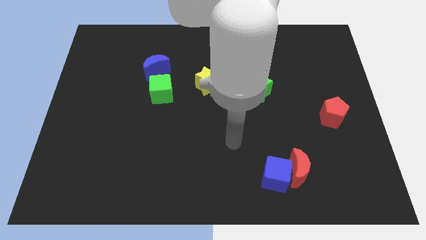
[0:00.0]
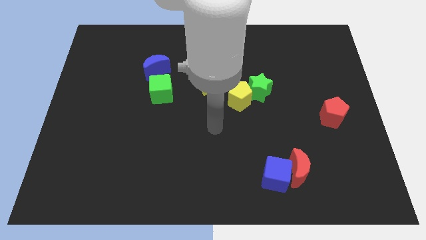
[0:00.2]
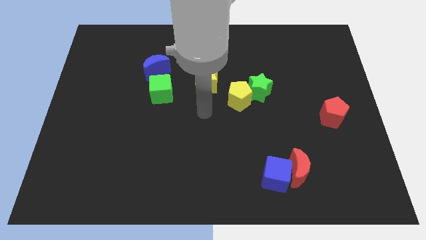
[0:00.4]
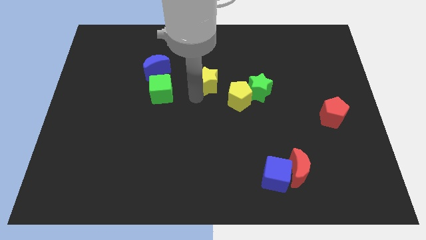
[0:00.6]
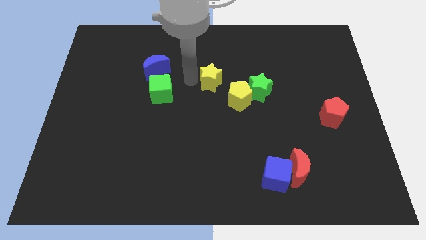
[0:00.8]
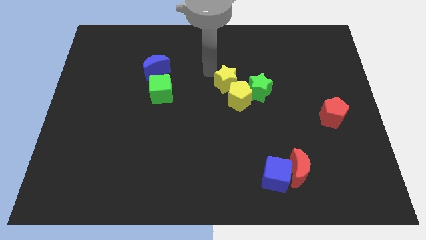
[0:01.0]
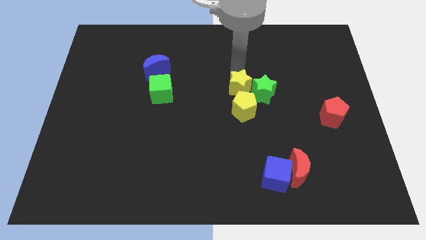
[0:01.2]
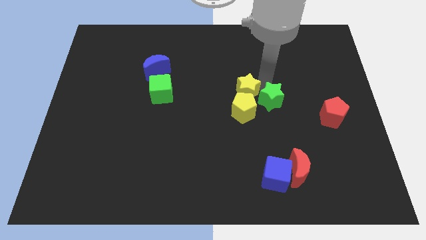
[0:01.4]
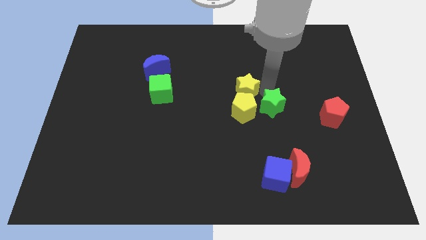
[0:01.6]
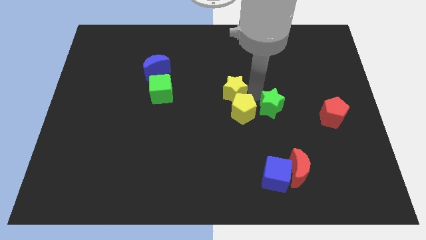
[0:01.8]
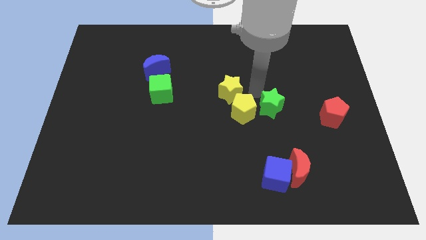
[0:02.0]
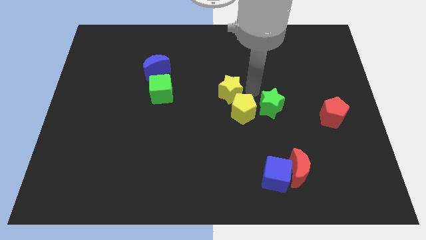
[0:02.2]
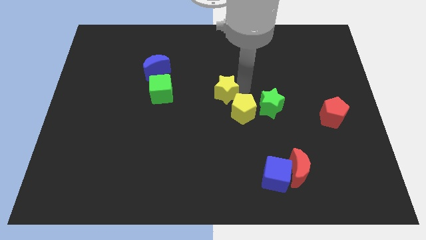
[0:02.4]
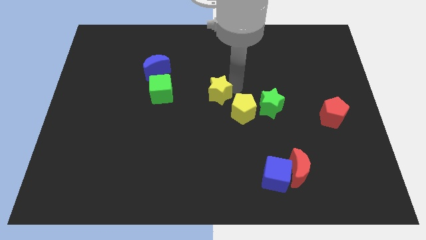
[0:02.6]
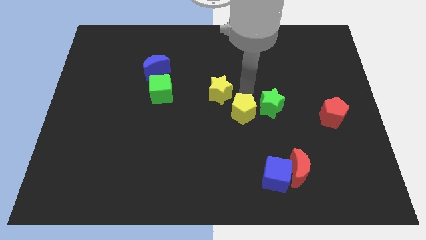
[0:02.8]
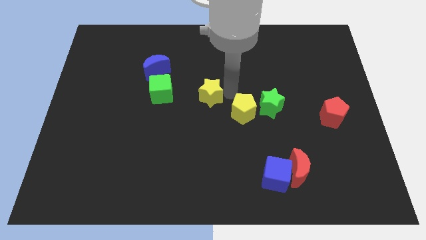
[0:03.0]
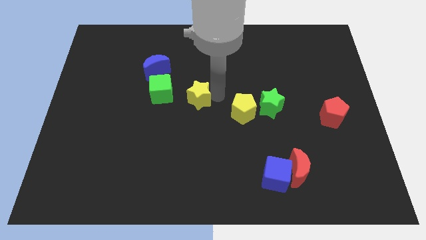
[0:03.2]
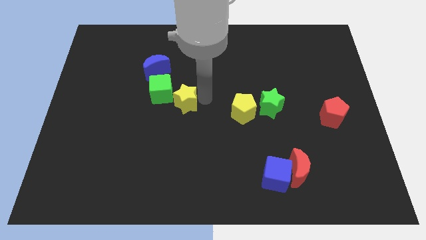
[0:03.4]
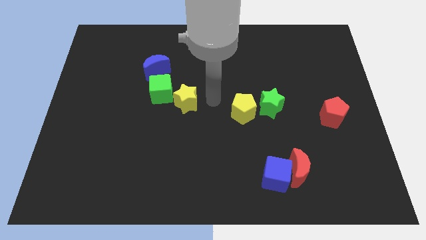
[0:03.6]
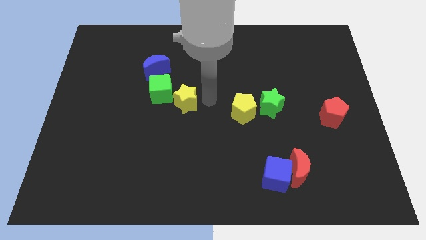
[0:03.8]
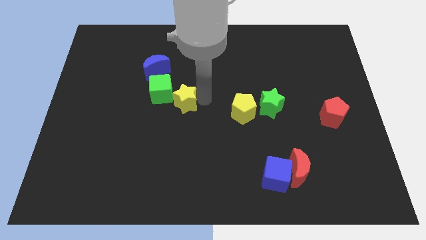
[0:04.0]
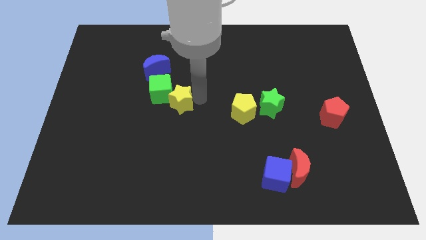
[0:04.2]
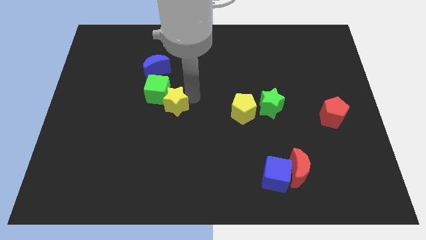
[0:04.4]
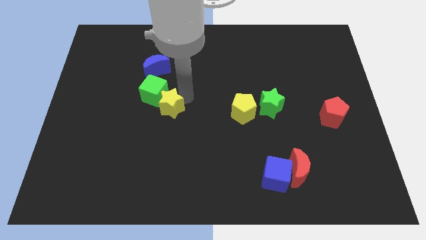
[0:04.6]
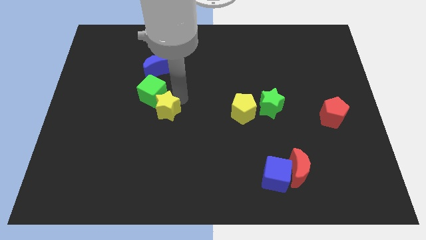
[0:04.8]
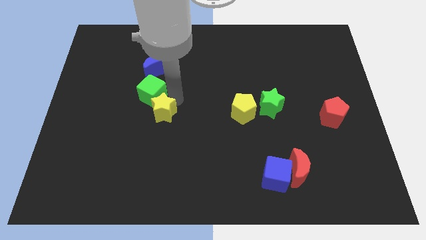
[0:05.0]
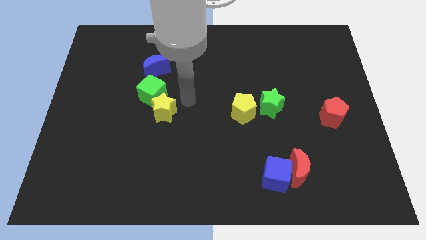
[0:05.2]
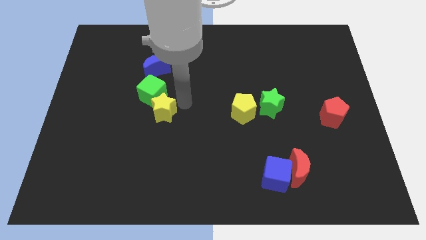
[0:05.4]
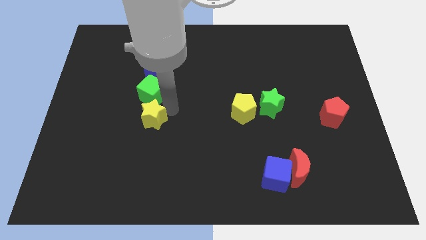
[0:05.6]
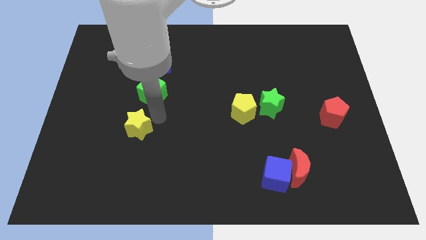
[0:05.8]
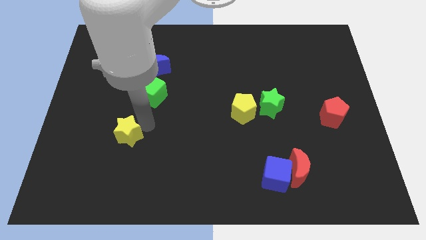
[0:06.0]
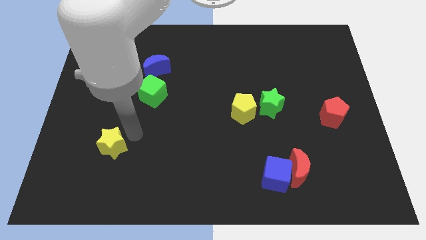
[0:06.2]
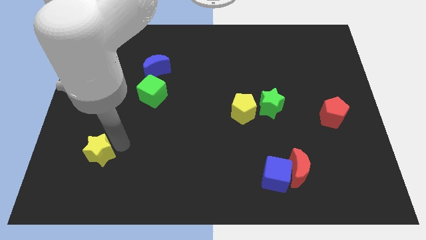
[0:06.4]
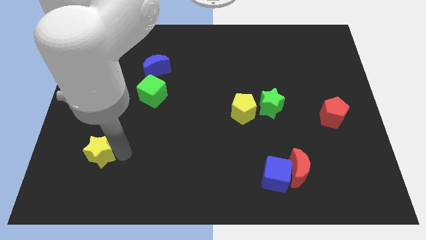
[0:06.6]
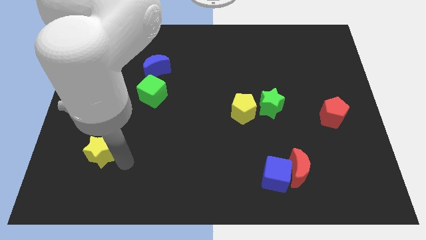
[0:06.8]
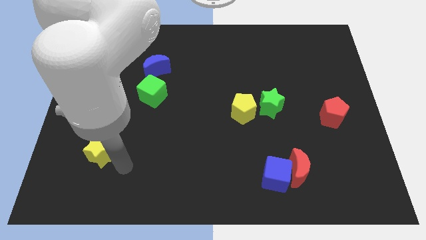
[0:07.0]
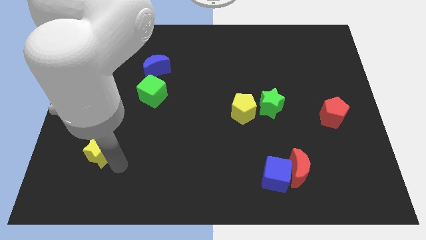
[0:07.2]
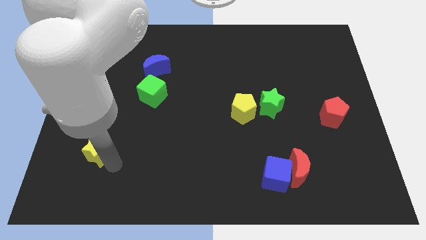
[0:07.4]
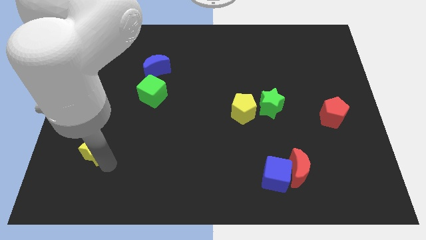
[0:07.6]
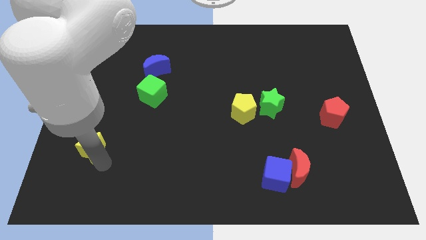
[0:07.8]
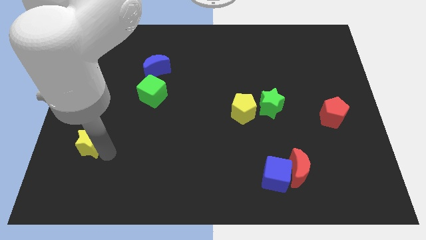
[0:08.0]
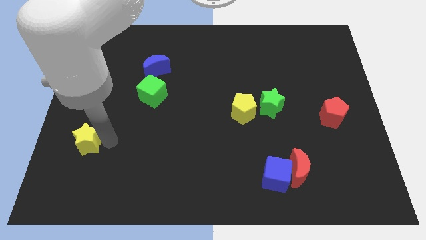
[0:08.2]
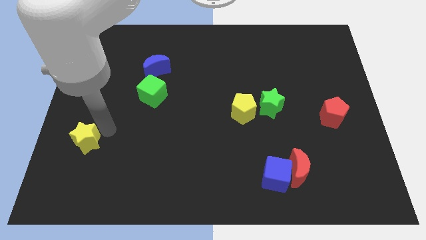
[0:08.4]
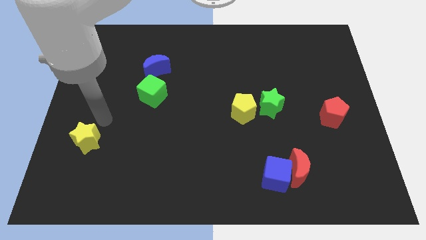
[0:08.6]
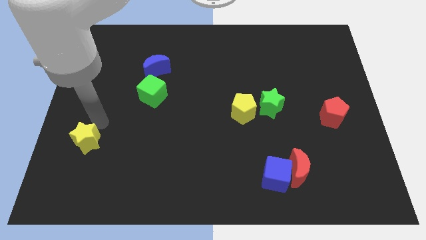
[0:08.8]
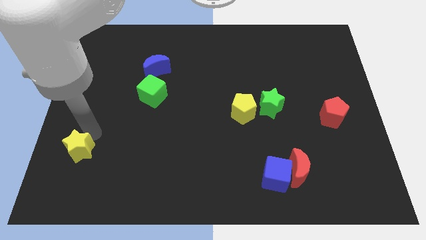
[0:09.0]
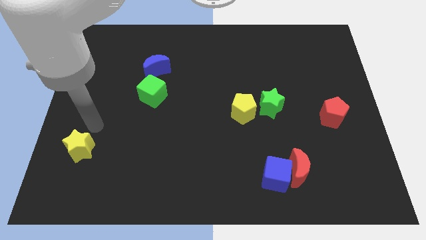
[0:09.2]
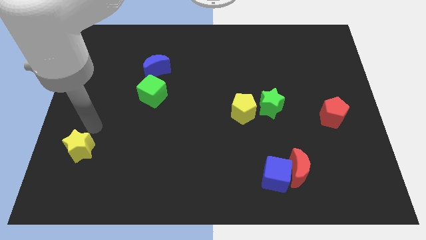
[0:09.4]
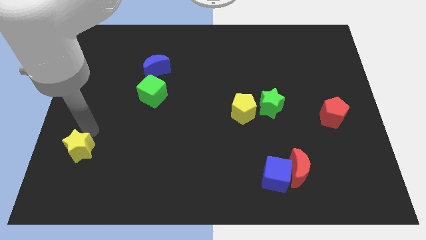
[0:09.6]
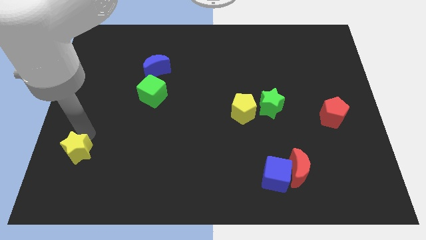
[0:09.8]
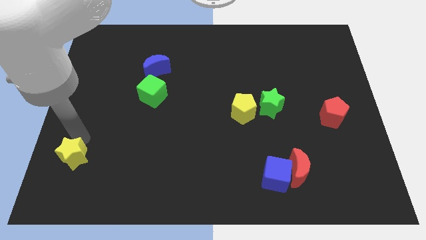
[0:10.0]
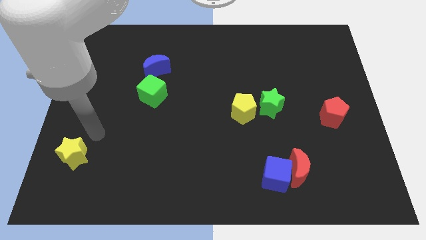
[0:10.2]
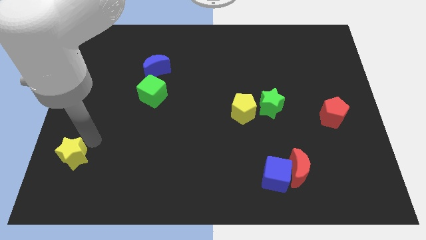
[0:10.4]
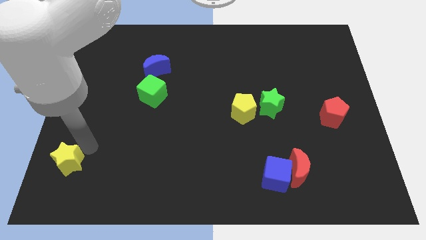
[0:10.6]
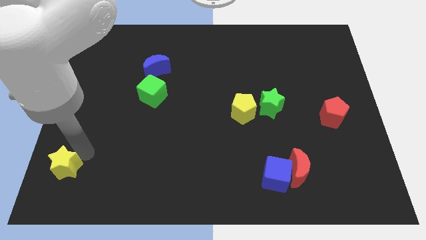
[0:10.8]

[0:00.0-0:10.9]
slide the yellow star to the bottom left corner

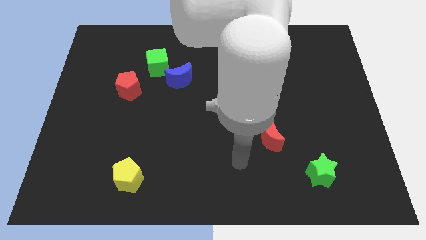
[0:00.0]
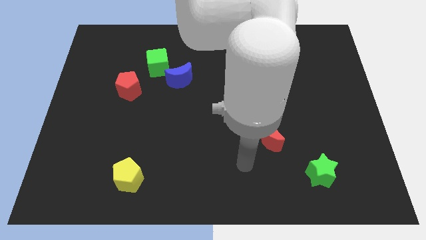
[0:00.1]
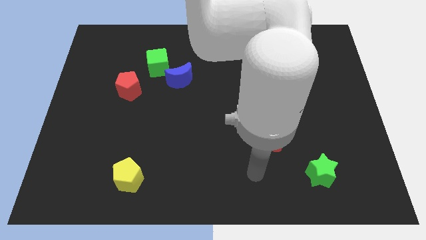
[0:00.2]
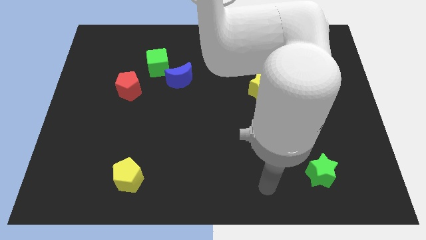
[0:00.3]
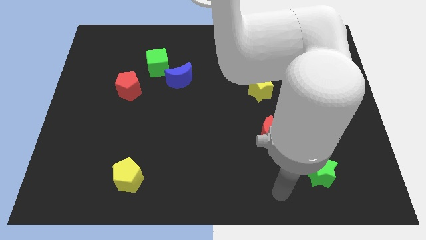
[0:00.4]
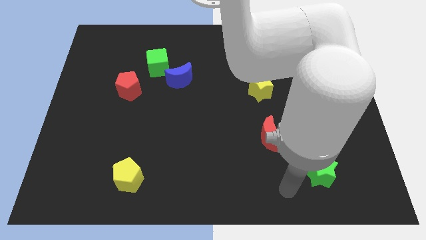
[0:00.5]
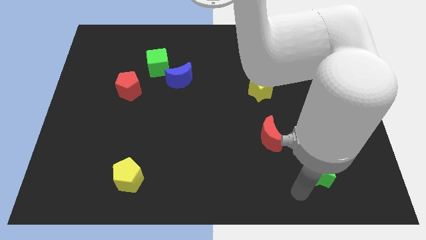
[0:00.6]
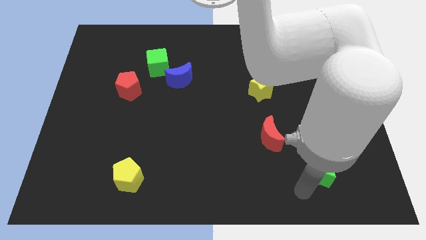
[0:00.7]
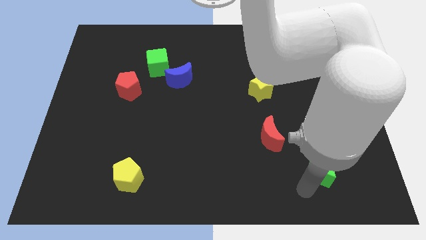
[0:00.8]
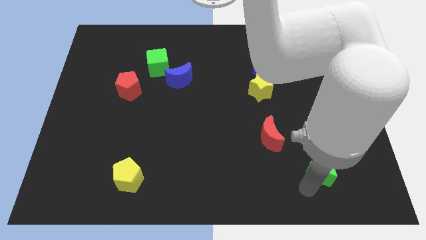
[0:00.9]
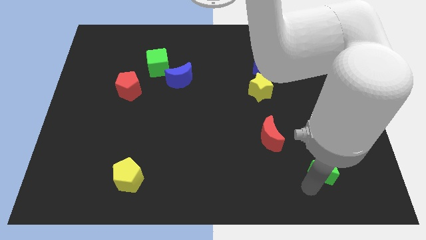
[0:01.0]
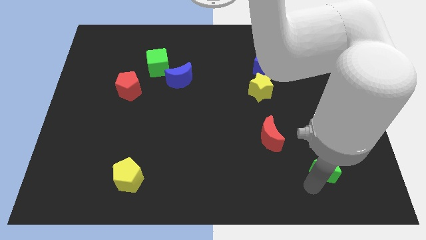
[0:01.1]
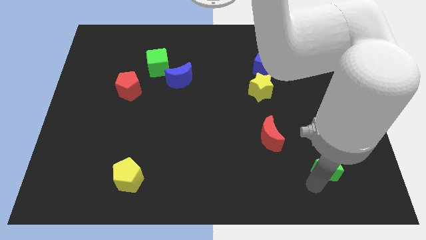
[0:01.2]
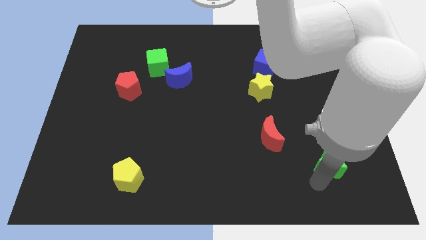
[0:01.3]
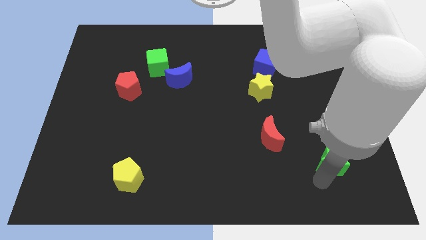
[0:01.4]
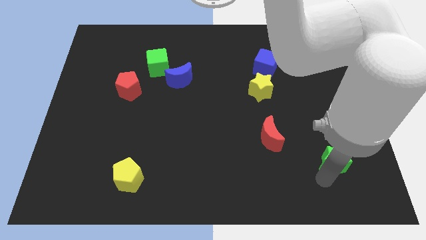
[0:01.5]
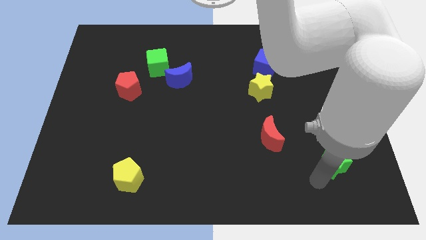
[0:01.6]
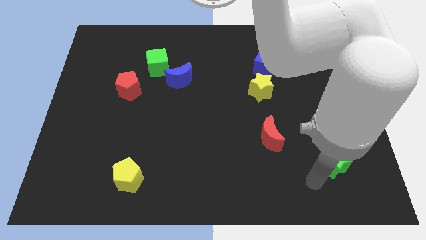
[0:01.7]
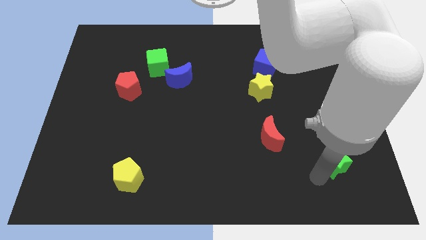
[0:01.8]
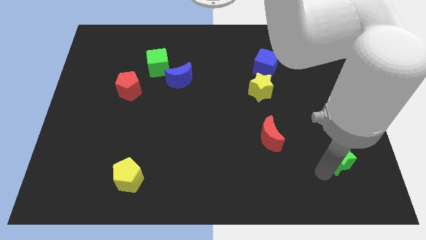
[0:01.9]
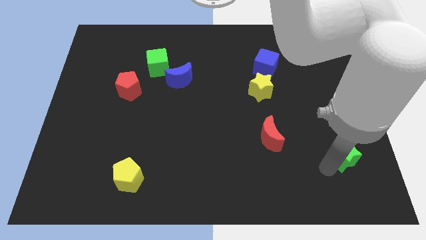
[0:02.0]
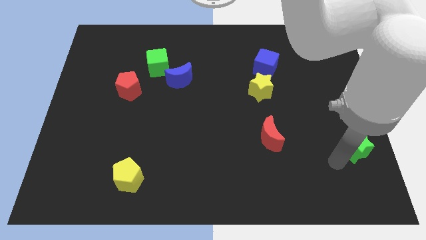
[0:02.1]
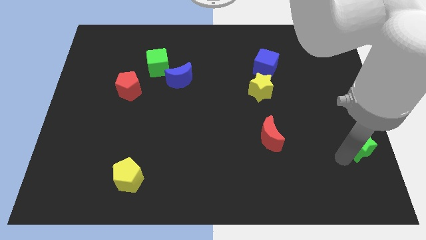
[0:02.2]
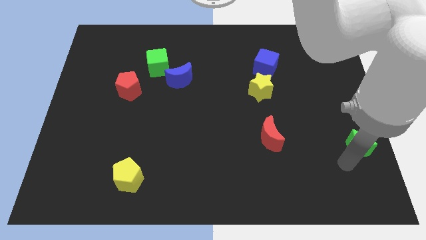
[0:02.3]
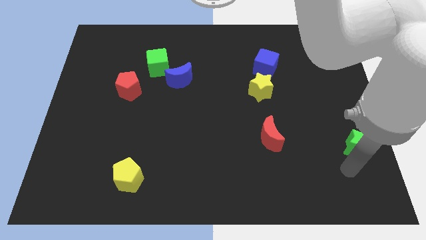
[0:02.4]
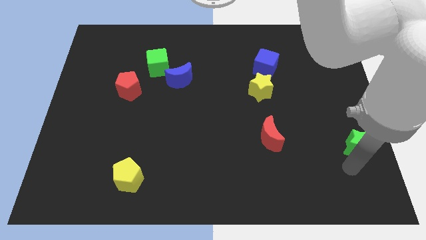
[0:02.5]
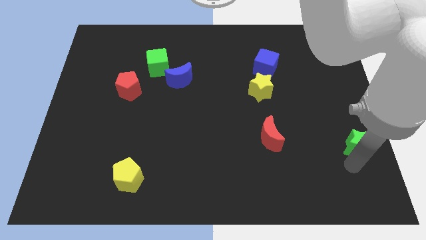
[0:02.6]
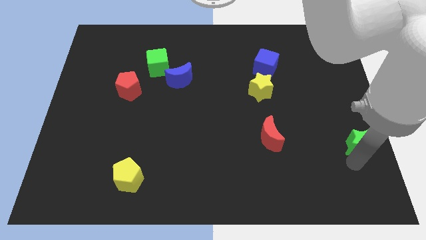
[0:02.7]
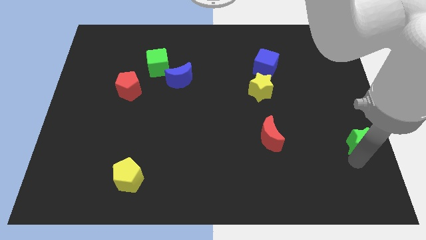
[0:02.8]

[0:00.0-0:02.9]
slide the green star to the right side
